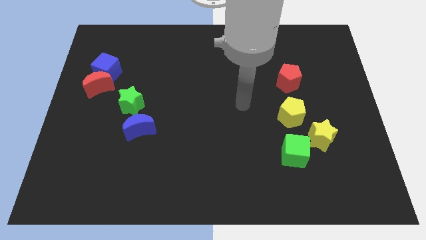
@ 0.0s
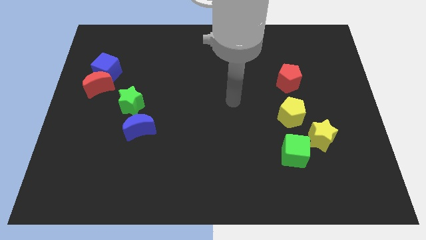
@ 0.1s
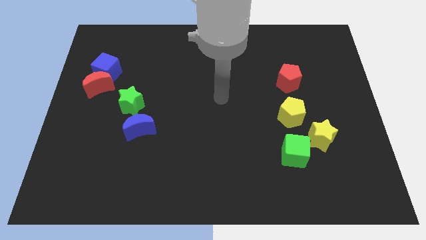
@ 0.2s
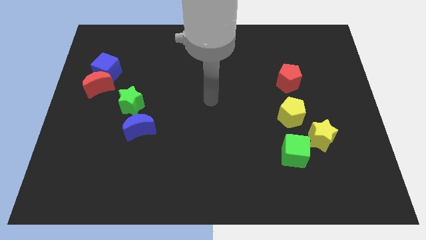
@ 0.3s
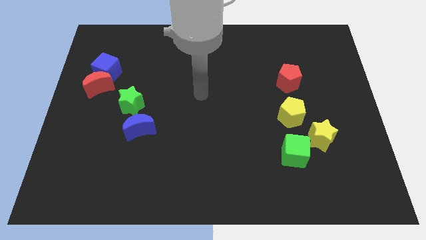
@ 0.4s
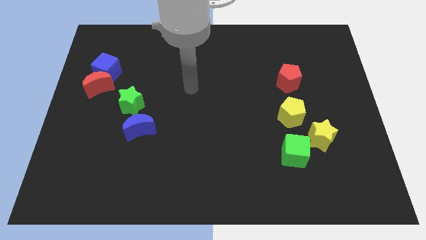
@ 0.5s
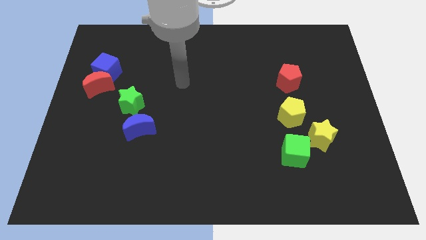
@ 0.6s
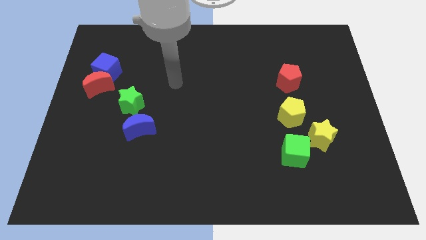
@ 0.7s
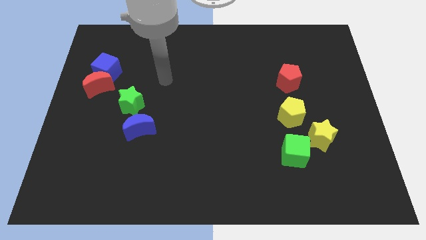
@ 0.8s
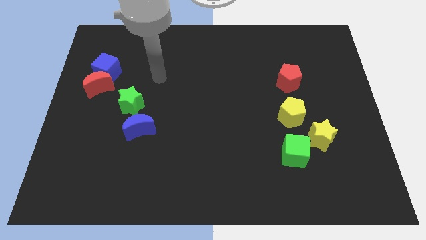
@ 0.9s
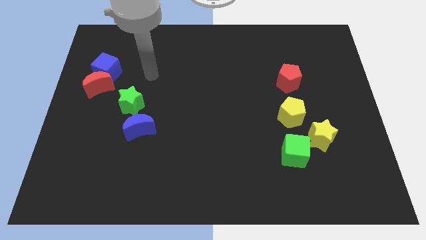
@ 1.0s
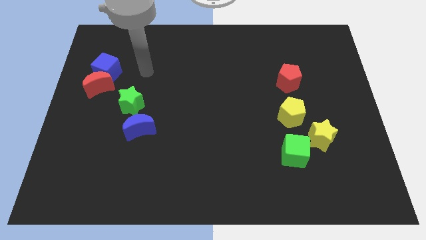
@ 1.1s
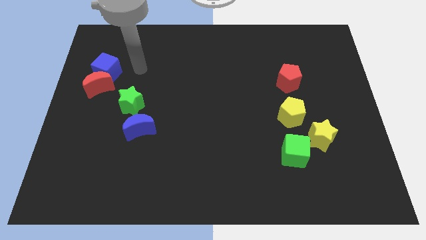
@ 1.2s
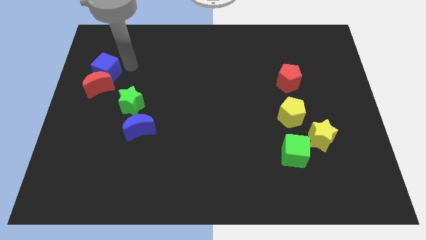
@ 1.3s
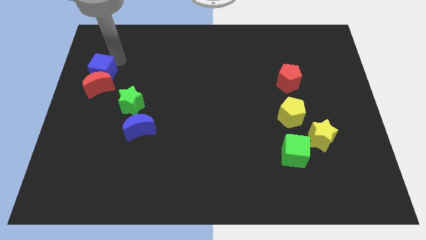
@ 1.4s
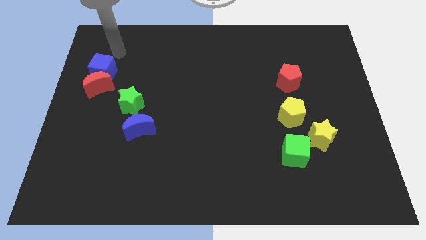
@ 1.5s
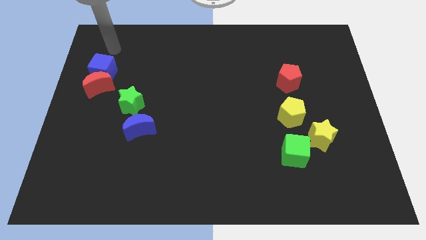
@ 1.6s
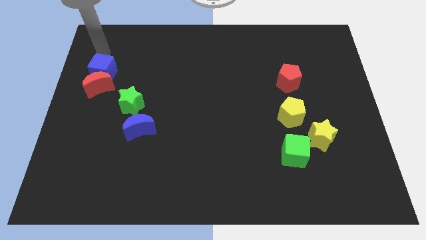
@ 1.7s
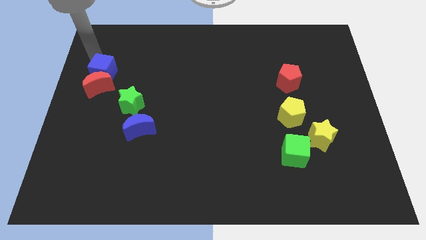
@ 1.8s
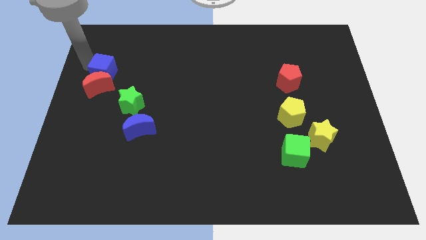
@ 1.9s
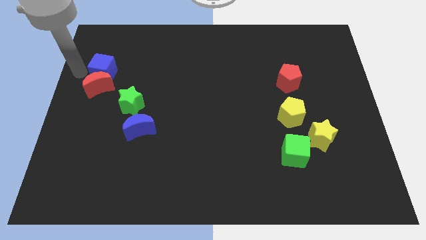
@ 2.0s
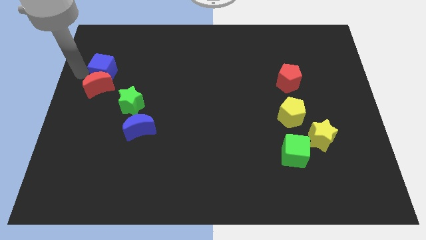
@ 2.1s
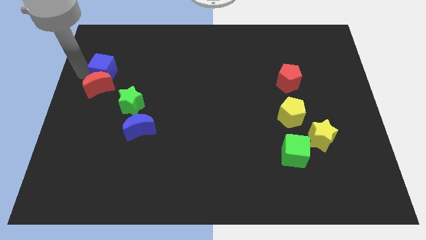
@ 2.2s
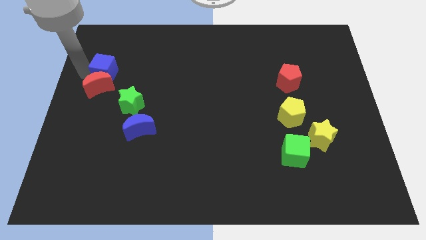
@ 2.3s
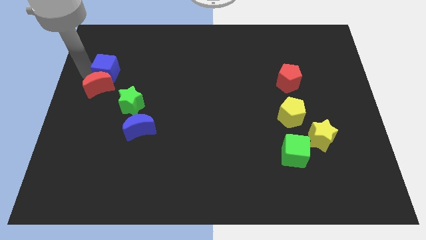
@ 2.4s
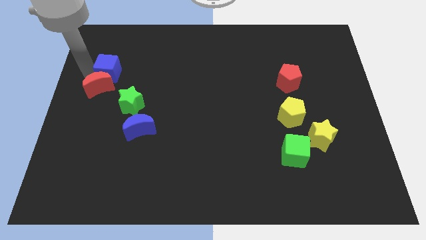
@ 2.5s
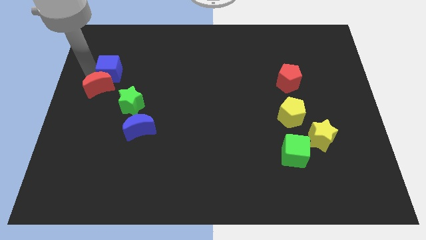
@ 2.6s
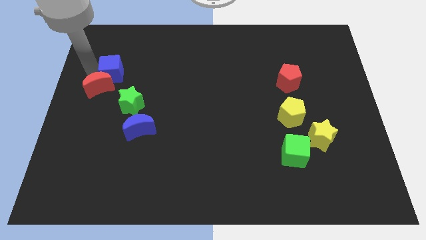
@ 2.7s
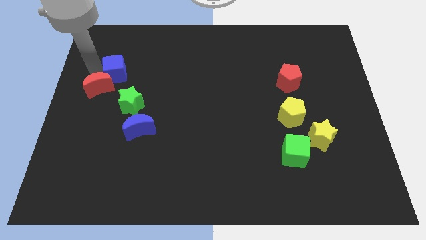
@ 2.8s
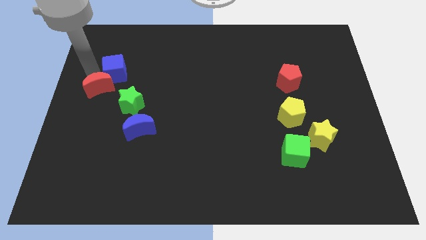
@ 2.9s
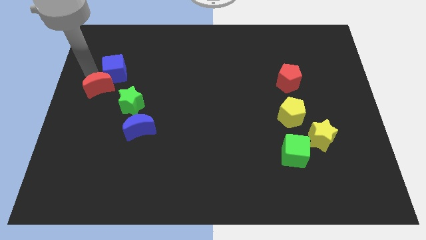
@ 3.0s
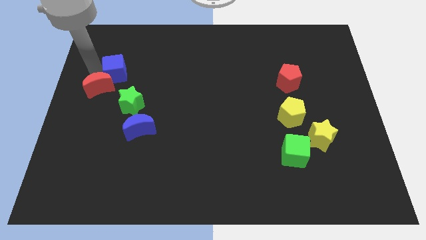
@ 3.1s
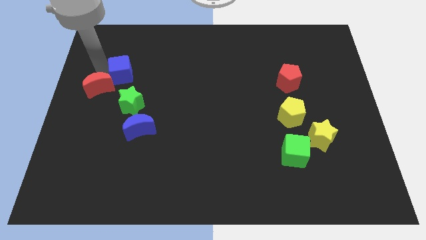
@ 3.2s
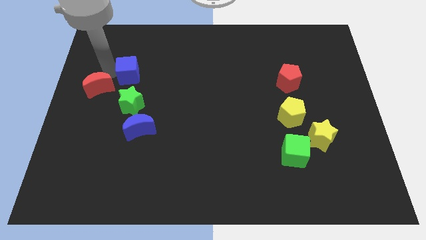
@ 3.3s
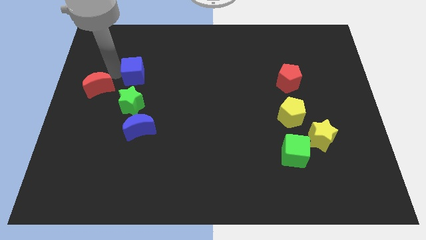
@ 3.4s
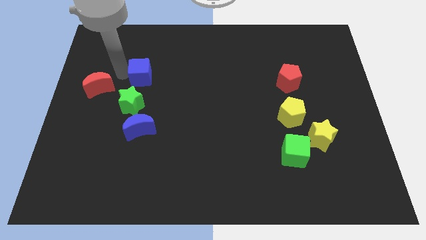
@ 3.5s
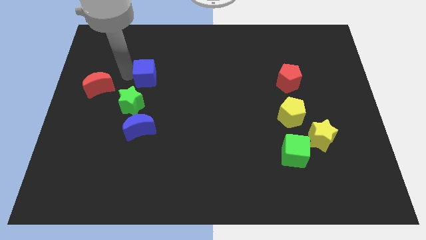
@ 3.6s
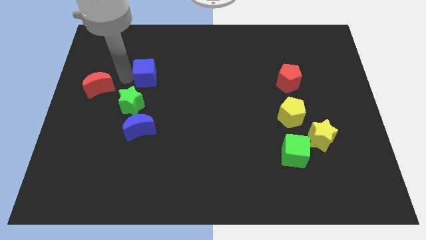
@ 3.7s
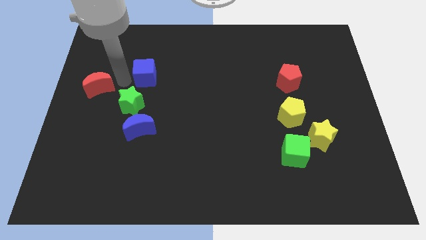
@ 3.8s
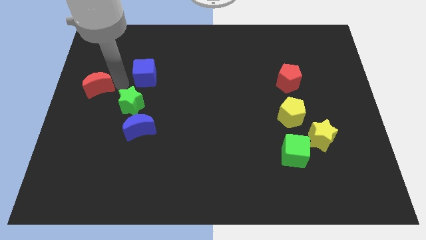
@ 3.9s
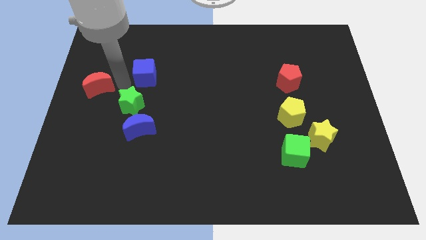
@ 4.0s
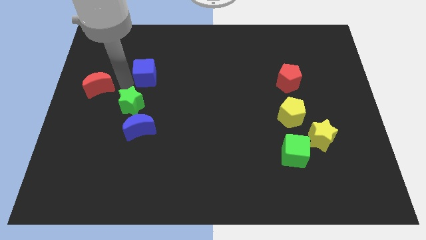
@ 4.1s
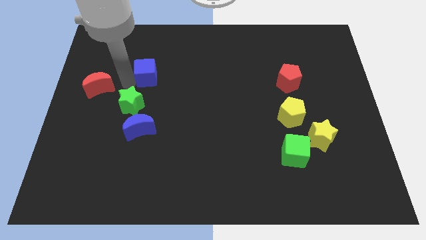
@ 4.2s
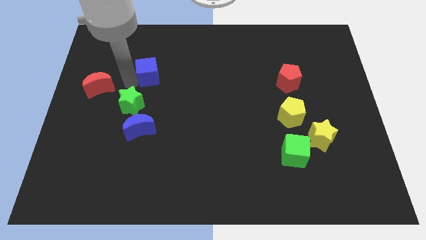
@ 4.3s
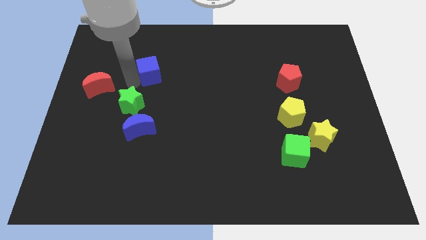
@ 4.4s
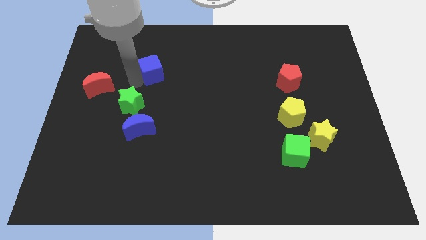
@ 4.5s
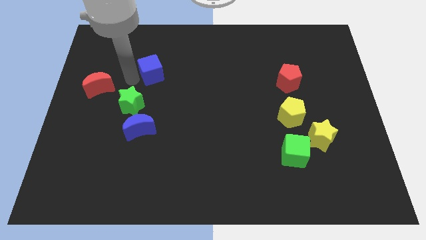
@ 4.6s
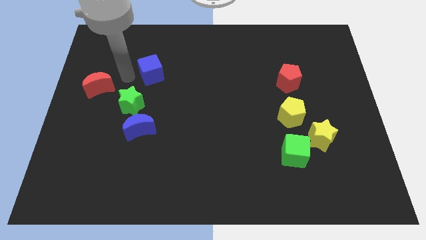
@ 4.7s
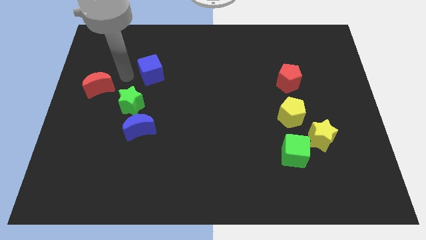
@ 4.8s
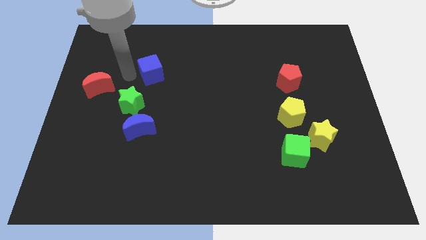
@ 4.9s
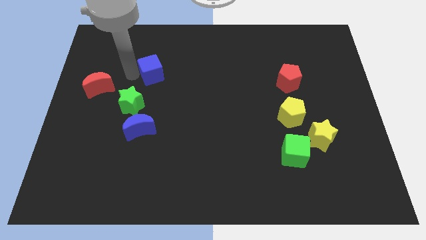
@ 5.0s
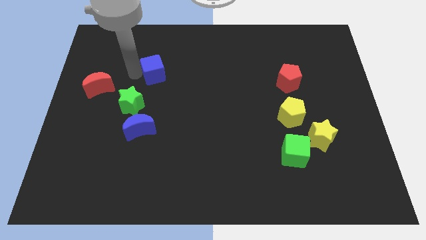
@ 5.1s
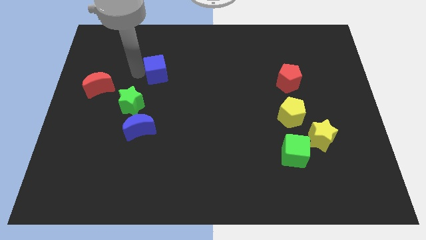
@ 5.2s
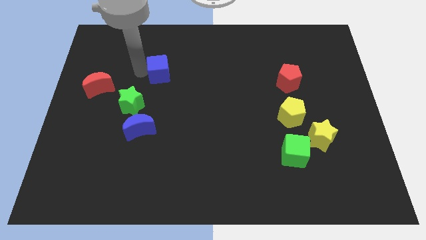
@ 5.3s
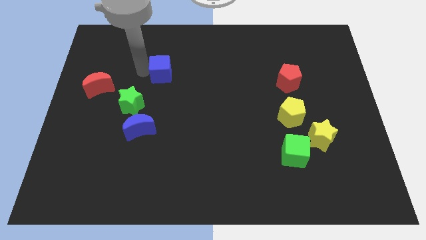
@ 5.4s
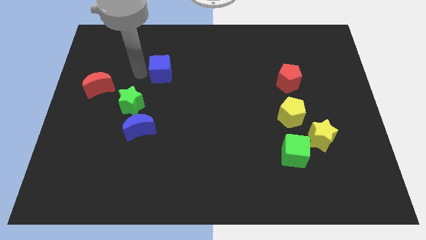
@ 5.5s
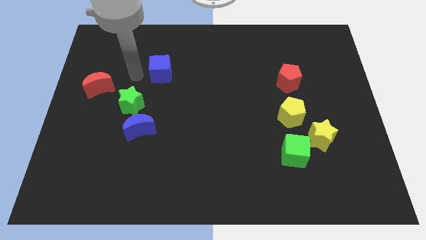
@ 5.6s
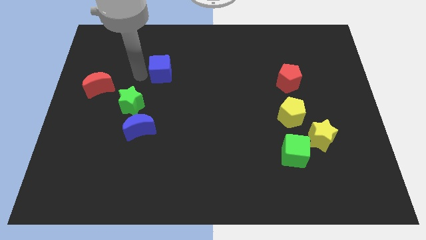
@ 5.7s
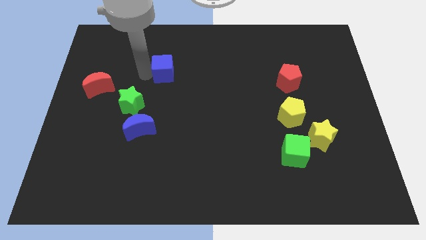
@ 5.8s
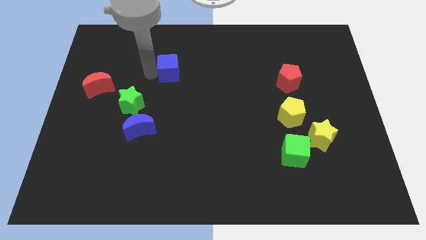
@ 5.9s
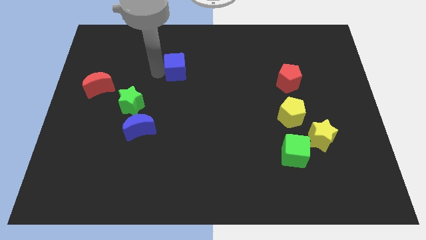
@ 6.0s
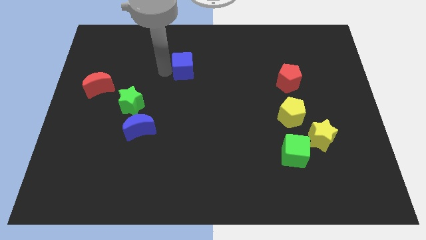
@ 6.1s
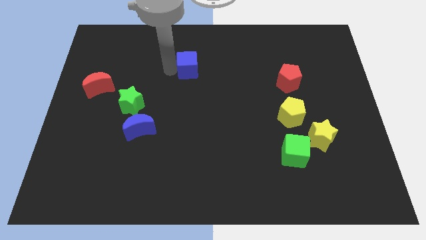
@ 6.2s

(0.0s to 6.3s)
move the blue cube to the right

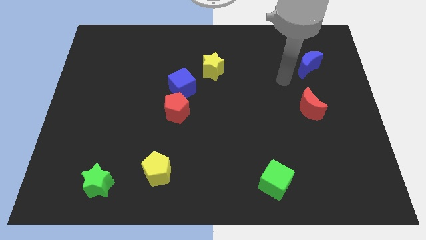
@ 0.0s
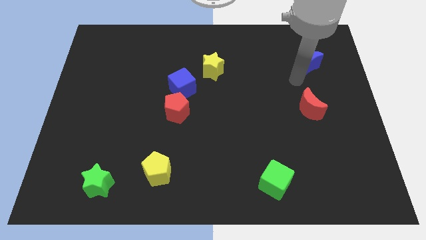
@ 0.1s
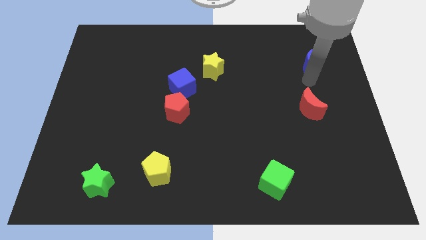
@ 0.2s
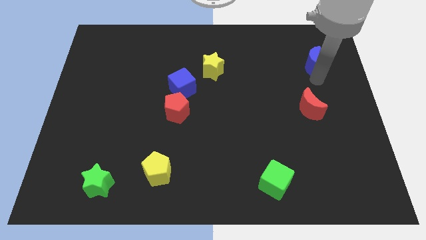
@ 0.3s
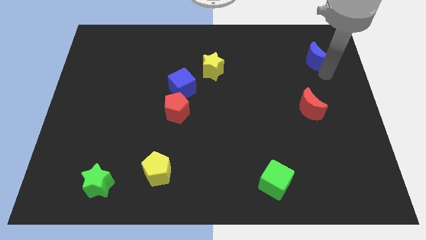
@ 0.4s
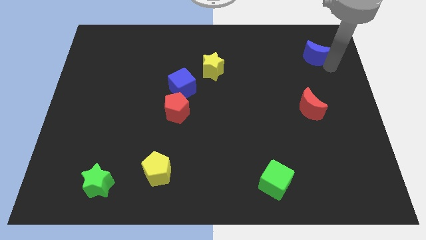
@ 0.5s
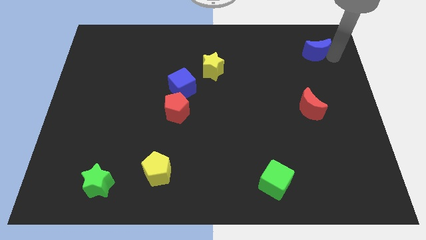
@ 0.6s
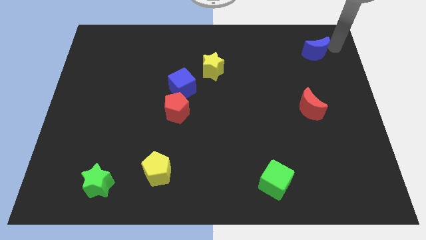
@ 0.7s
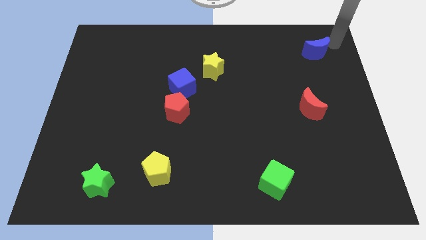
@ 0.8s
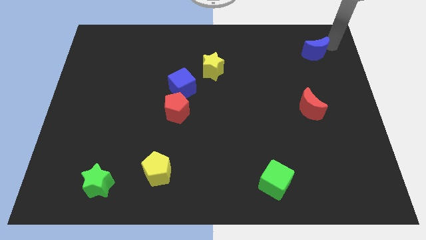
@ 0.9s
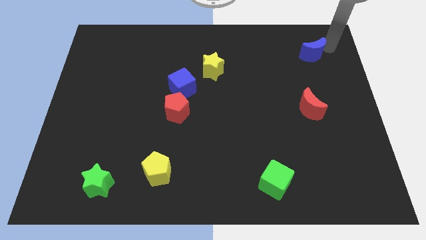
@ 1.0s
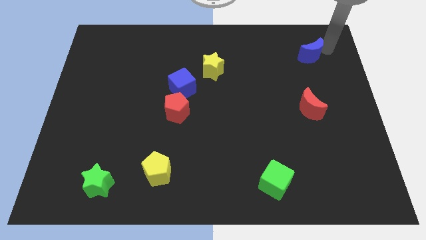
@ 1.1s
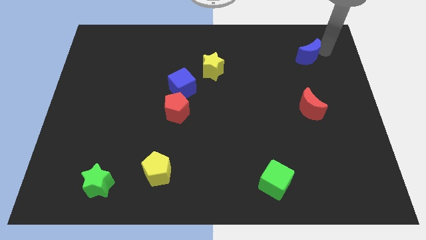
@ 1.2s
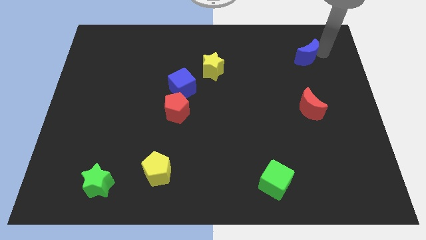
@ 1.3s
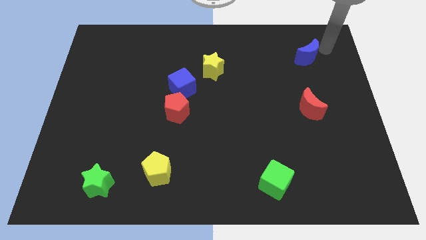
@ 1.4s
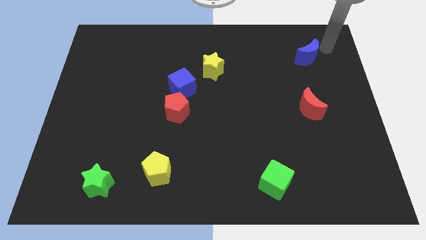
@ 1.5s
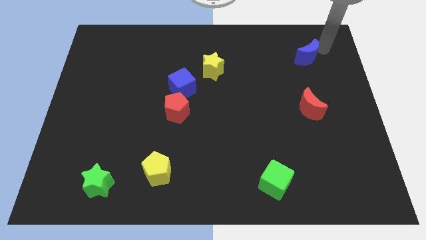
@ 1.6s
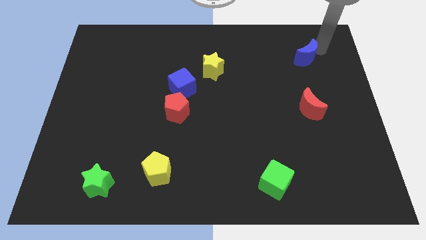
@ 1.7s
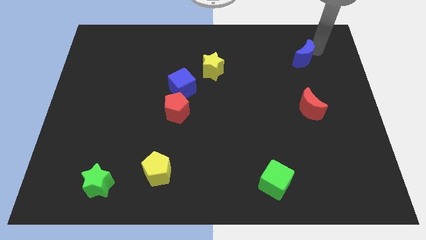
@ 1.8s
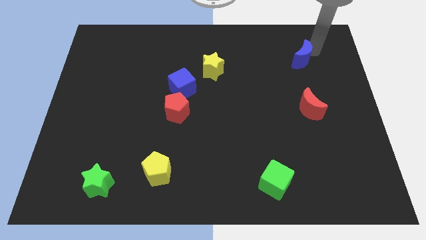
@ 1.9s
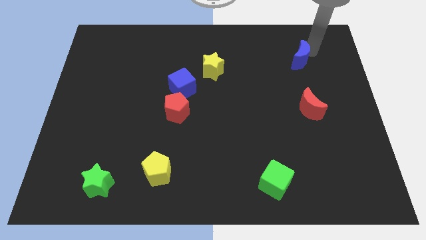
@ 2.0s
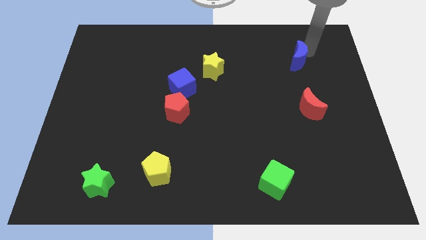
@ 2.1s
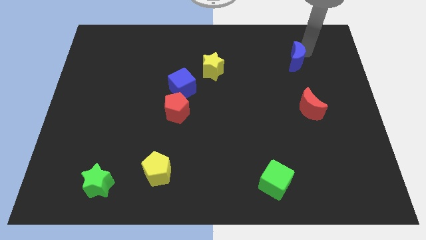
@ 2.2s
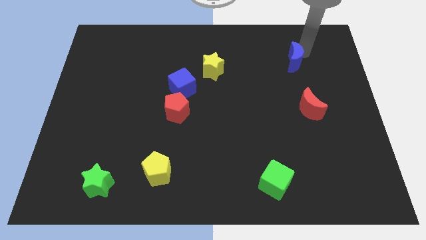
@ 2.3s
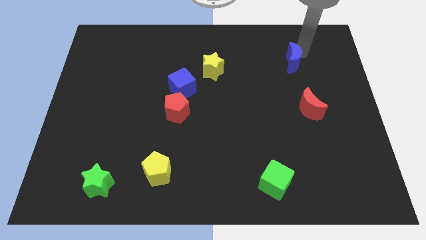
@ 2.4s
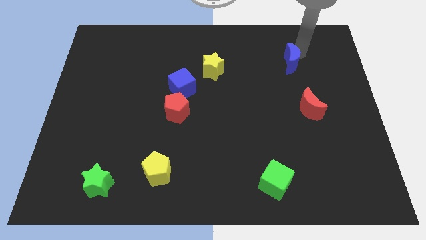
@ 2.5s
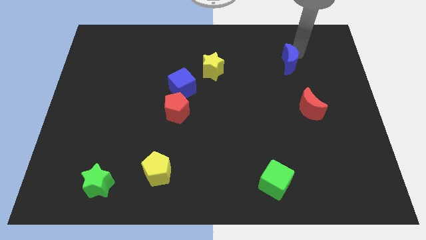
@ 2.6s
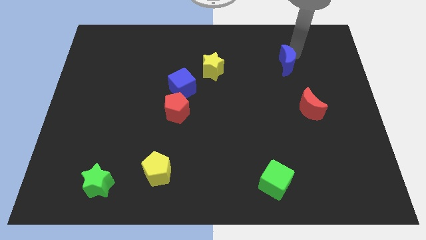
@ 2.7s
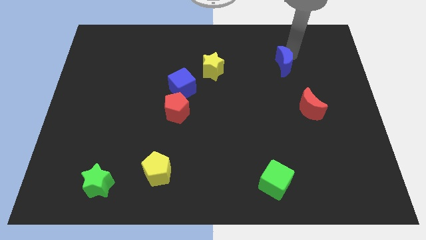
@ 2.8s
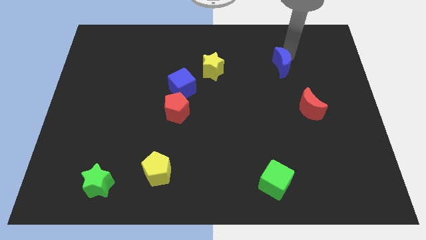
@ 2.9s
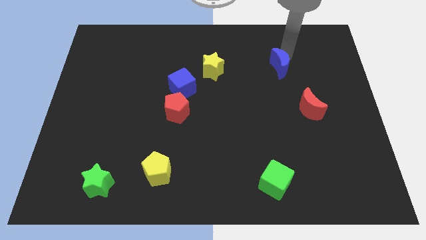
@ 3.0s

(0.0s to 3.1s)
slightly push the blue moon to the left
